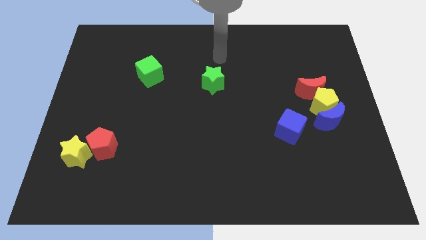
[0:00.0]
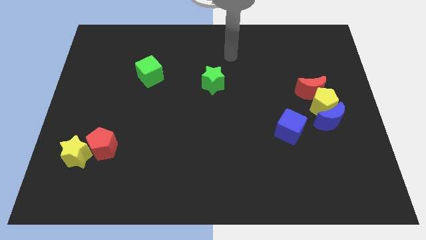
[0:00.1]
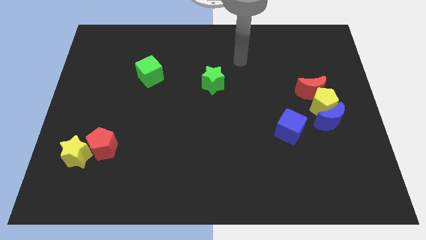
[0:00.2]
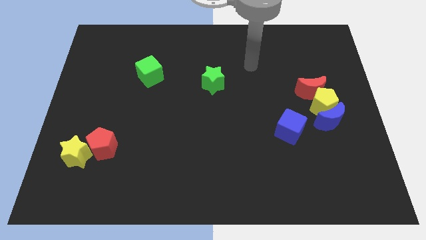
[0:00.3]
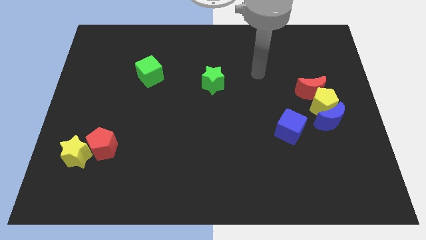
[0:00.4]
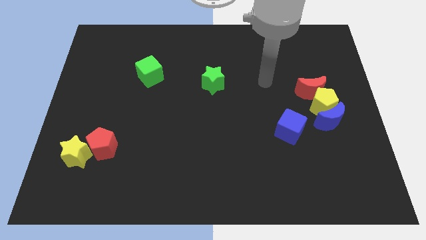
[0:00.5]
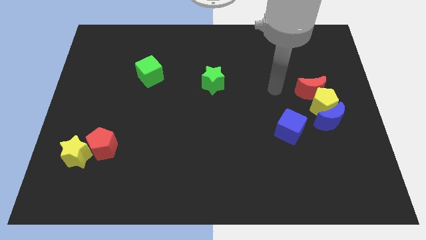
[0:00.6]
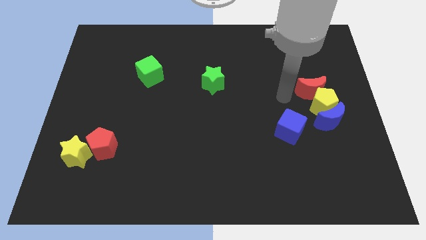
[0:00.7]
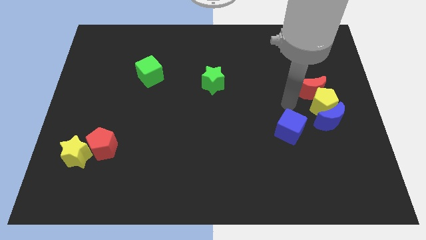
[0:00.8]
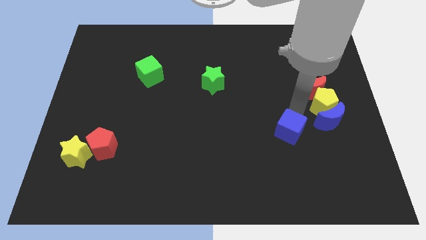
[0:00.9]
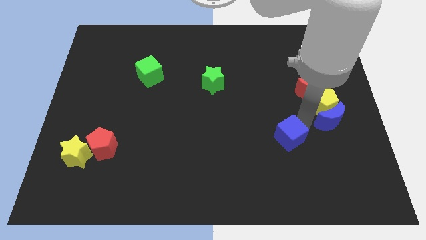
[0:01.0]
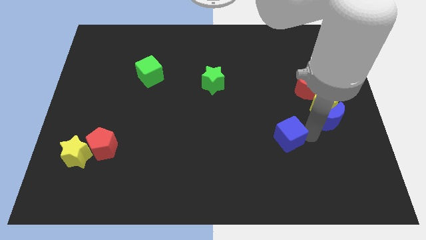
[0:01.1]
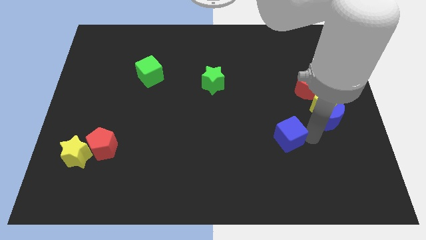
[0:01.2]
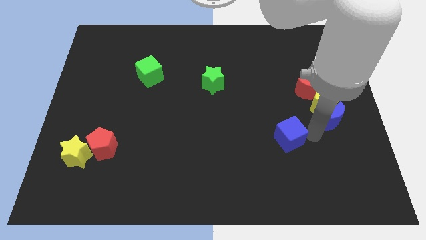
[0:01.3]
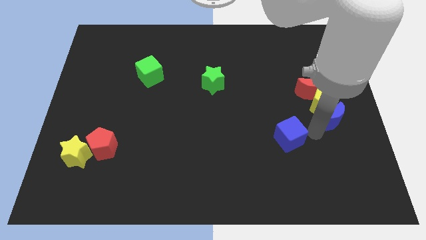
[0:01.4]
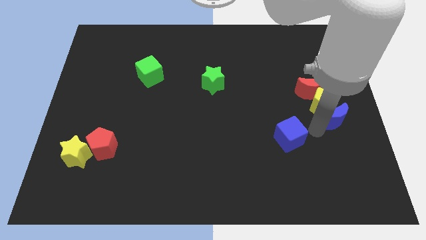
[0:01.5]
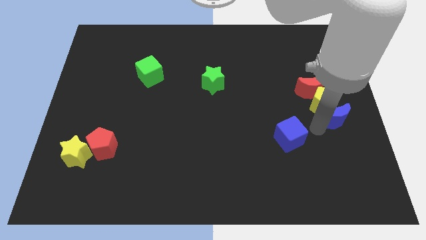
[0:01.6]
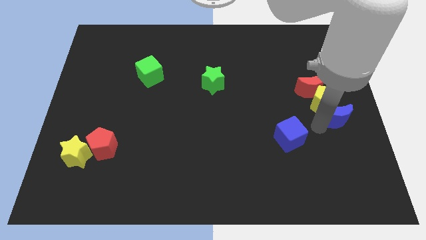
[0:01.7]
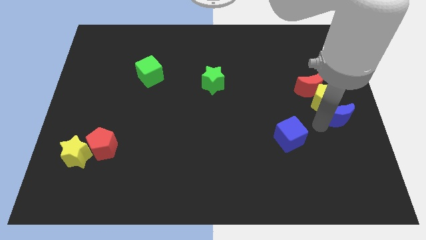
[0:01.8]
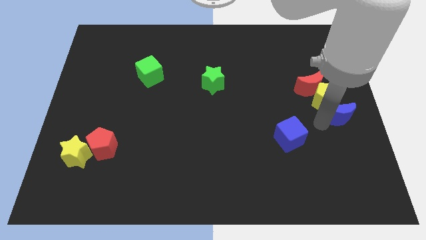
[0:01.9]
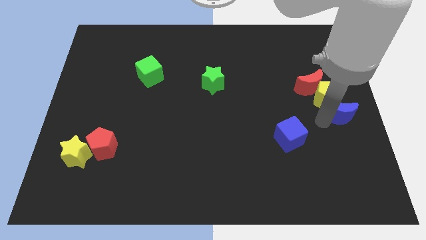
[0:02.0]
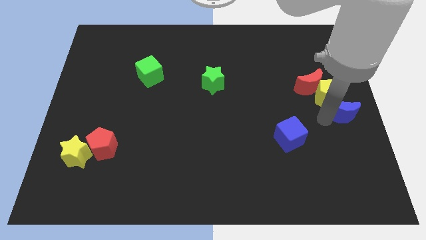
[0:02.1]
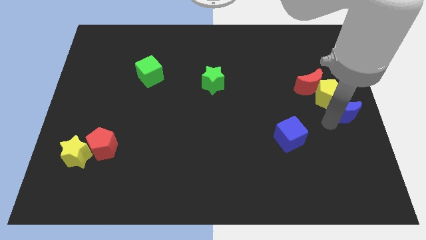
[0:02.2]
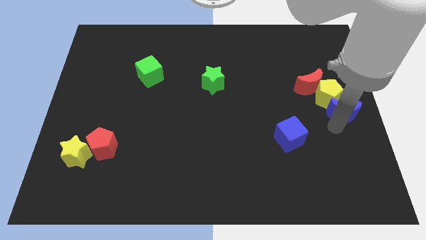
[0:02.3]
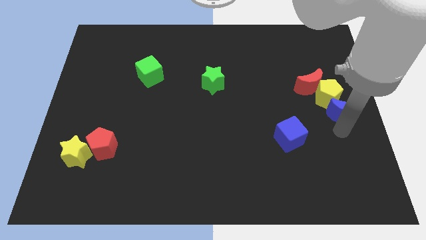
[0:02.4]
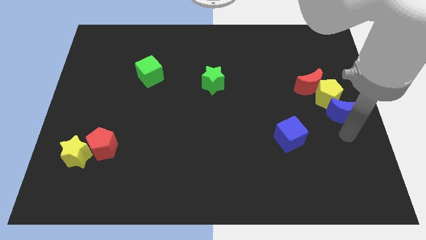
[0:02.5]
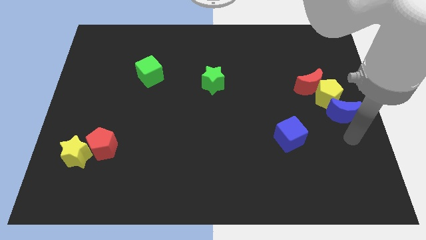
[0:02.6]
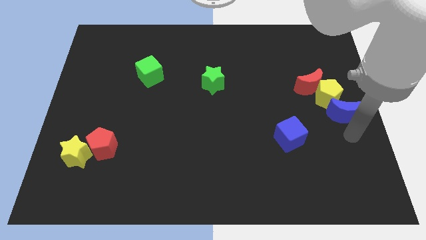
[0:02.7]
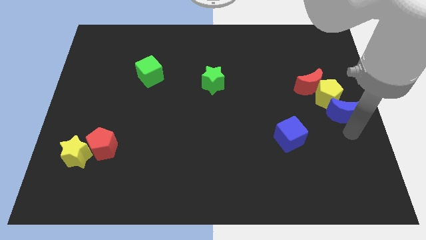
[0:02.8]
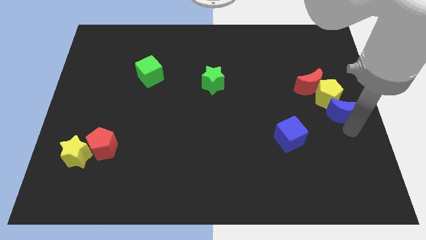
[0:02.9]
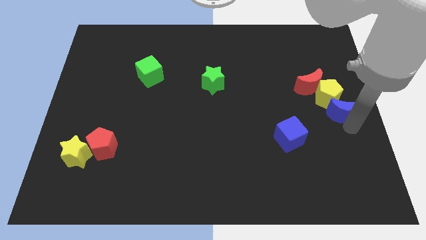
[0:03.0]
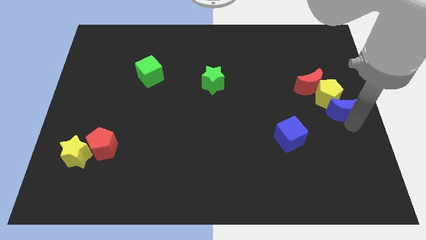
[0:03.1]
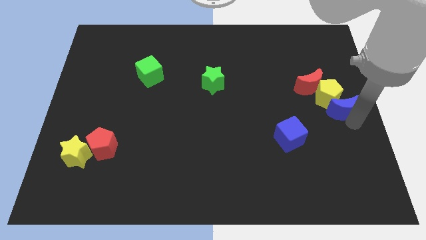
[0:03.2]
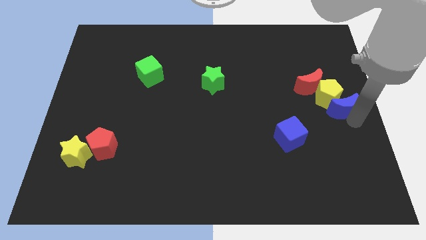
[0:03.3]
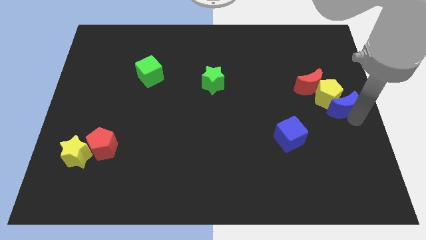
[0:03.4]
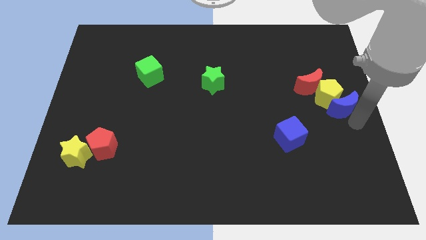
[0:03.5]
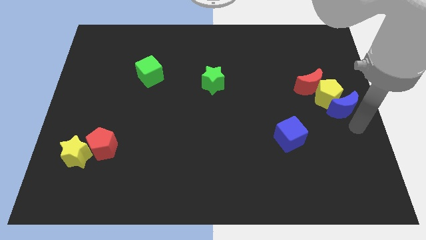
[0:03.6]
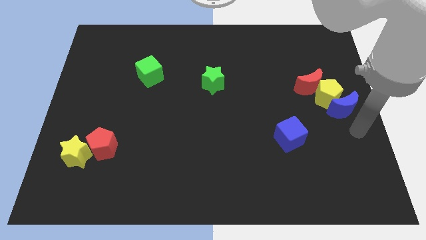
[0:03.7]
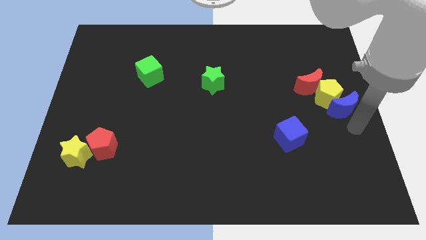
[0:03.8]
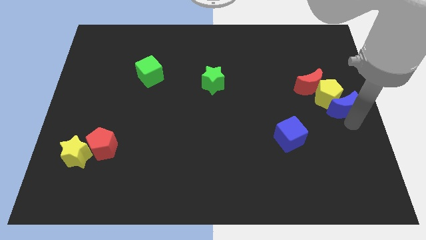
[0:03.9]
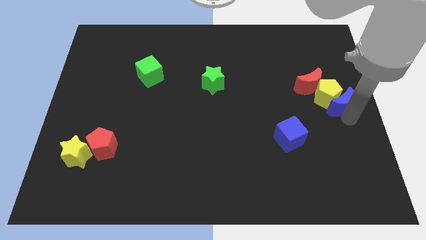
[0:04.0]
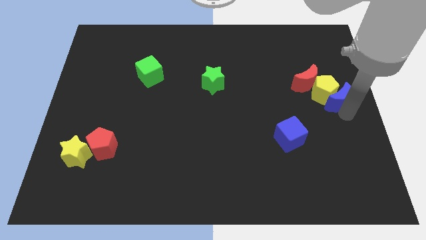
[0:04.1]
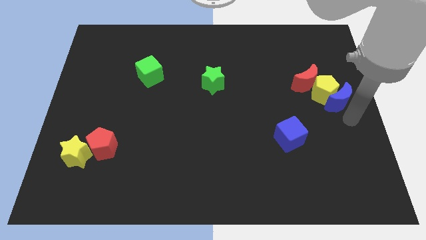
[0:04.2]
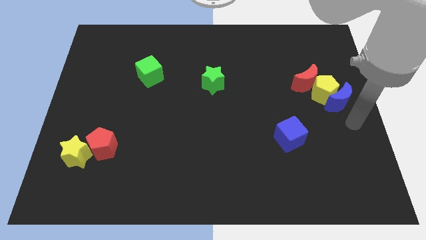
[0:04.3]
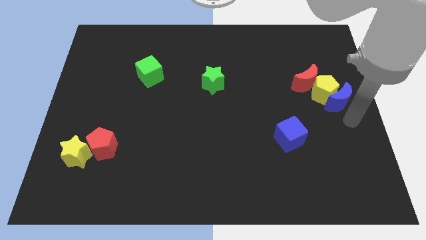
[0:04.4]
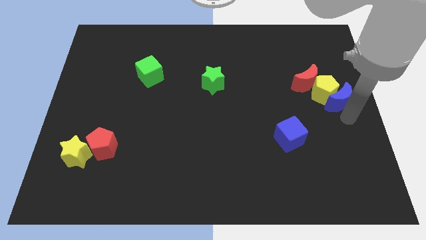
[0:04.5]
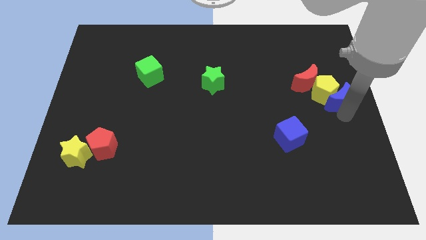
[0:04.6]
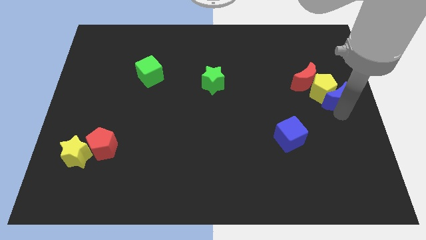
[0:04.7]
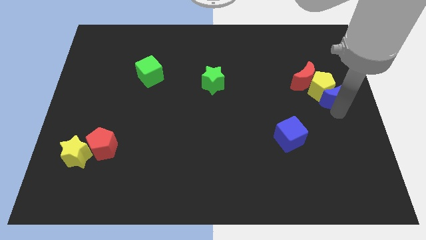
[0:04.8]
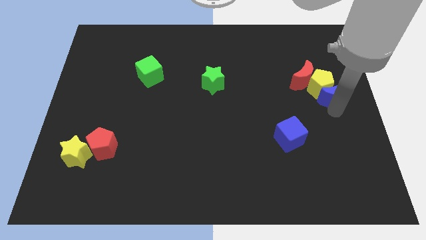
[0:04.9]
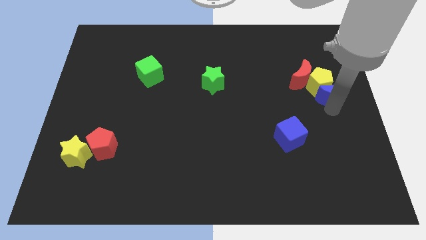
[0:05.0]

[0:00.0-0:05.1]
slightly move the blue moon up

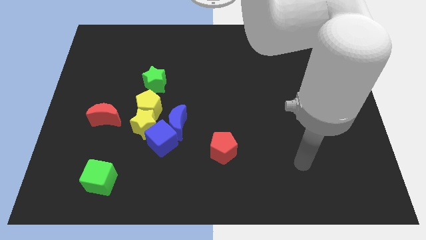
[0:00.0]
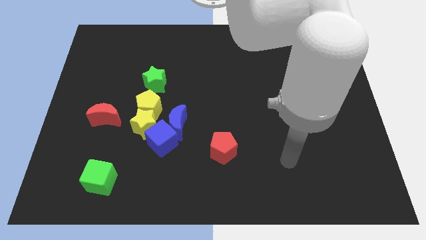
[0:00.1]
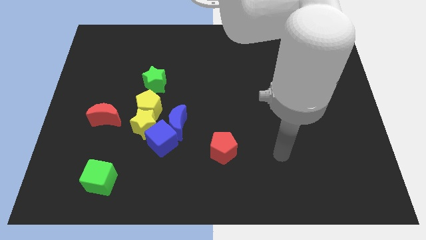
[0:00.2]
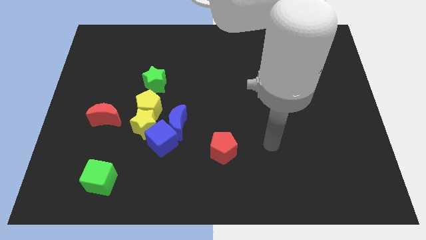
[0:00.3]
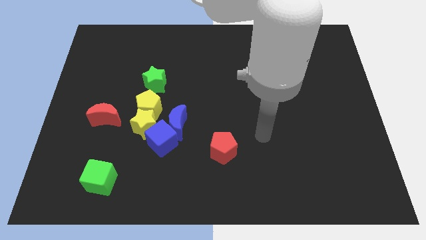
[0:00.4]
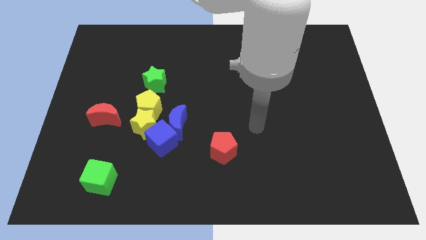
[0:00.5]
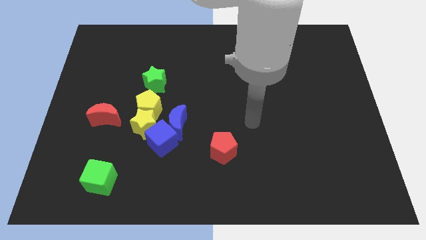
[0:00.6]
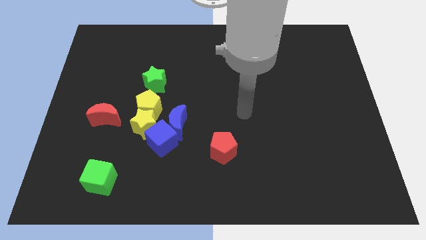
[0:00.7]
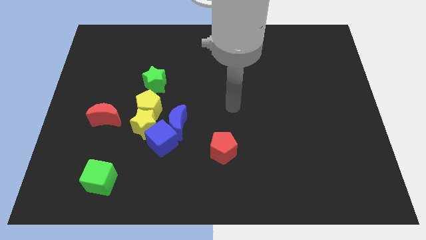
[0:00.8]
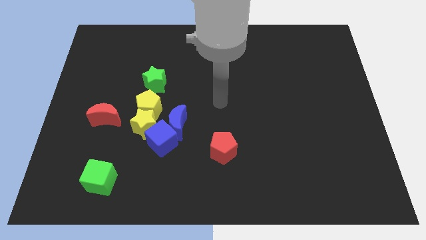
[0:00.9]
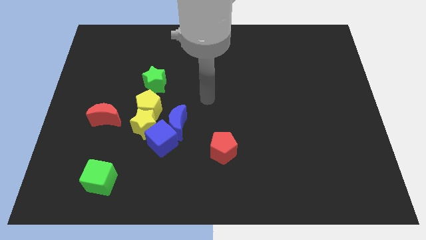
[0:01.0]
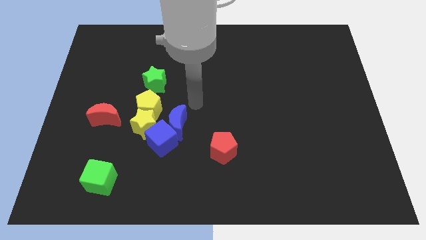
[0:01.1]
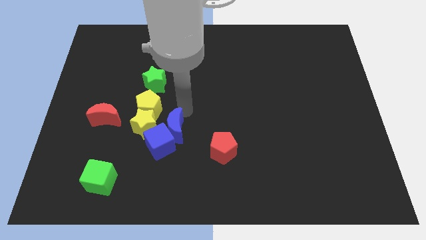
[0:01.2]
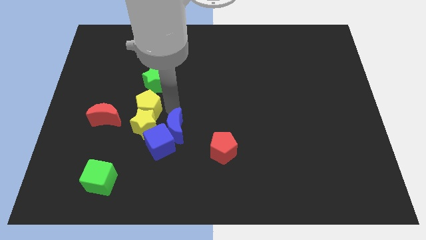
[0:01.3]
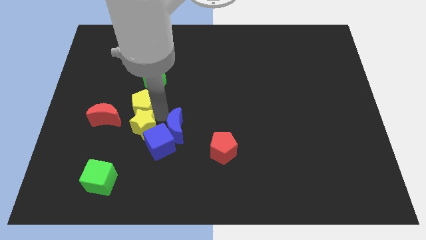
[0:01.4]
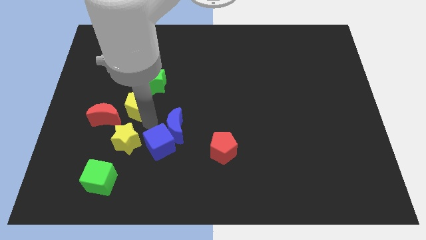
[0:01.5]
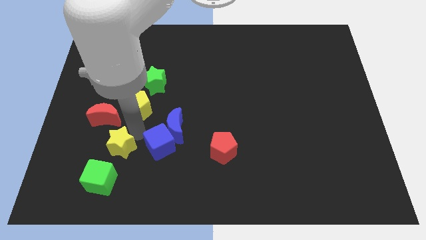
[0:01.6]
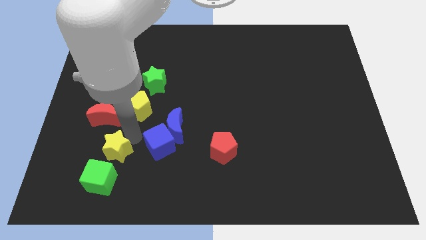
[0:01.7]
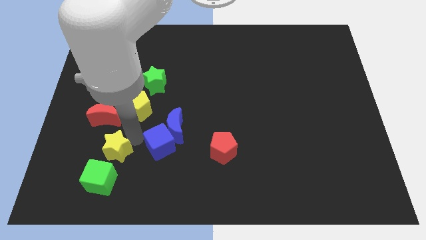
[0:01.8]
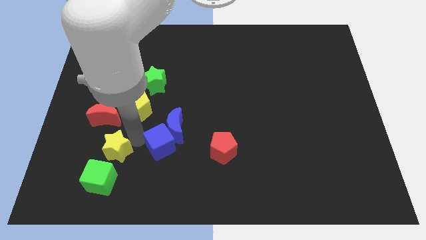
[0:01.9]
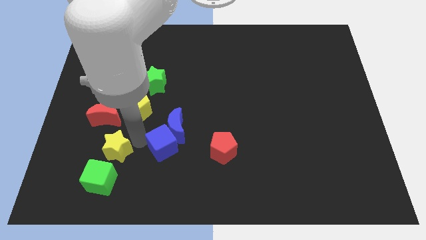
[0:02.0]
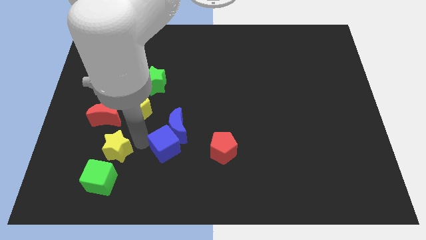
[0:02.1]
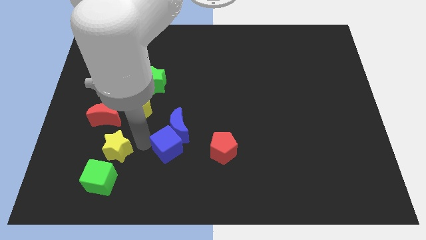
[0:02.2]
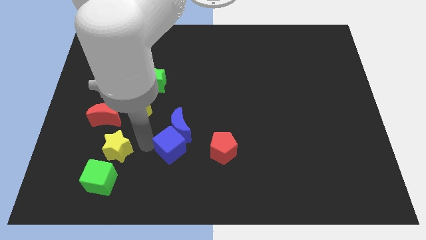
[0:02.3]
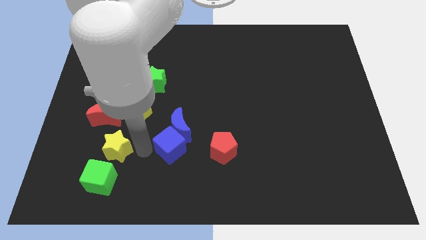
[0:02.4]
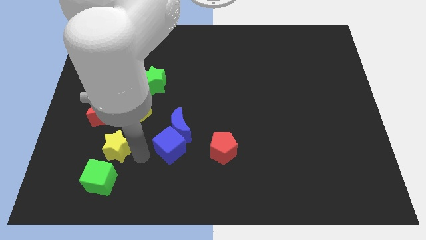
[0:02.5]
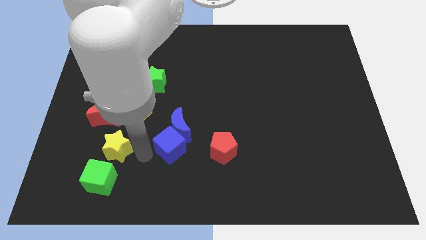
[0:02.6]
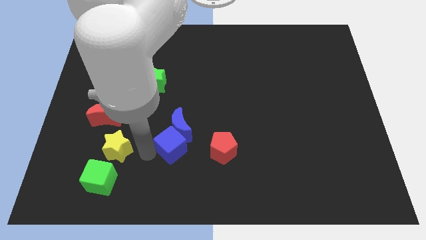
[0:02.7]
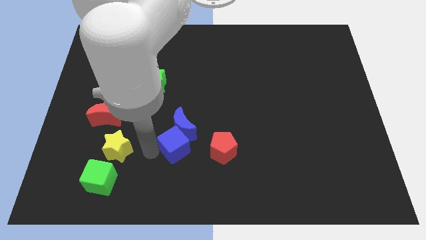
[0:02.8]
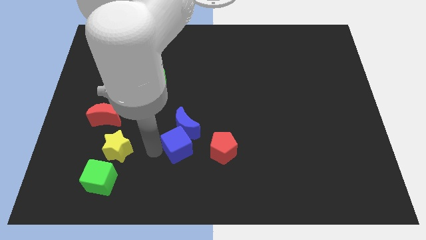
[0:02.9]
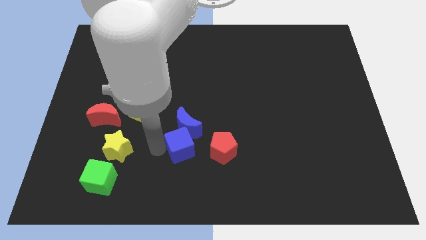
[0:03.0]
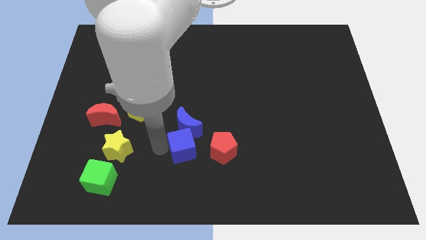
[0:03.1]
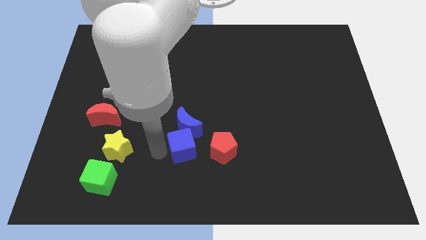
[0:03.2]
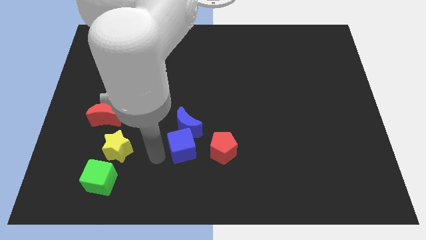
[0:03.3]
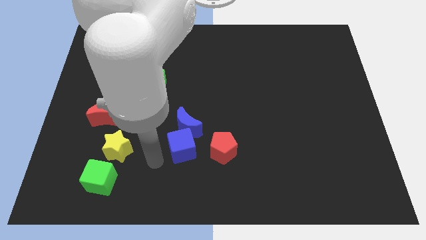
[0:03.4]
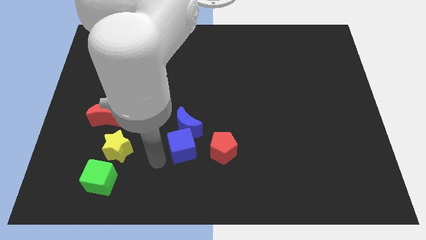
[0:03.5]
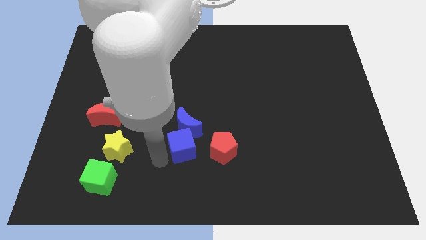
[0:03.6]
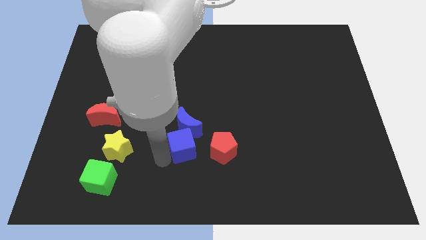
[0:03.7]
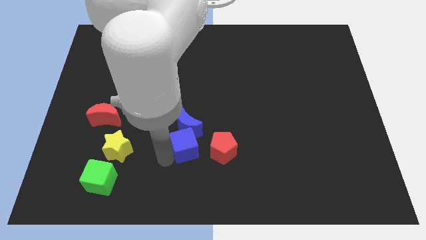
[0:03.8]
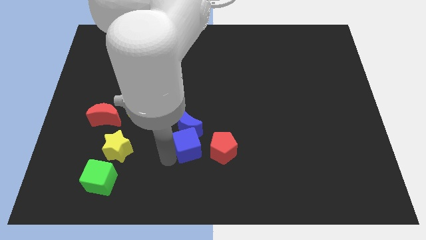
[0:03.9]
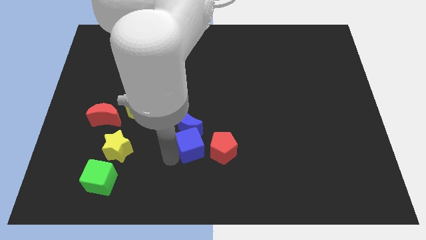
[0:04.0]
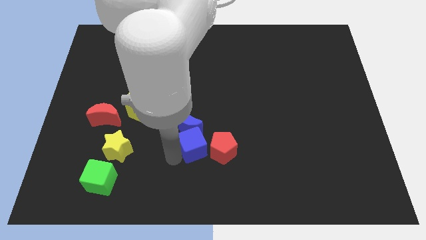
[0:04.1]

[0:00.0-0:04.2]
move the blue cube a bit right
